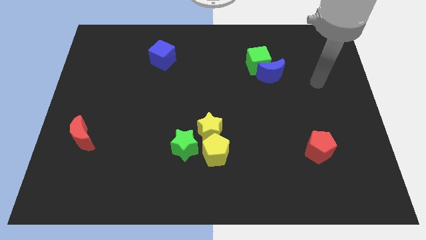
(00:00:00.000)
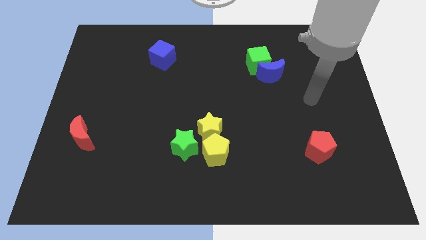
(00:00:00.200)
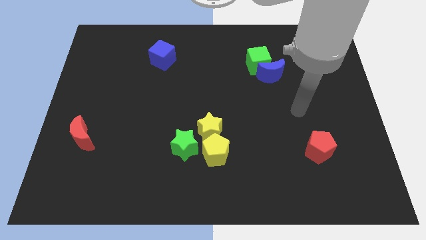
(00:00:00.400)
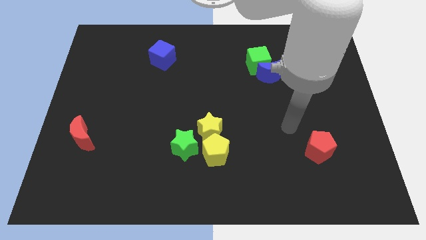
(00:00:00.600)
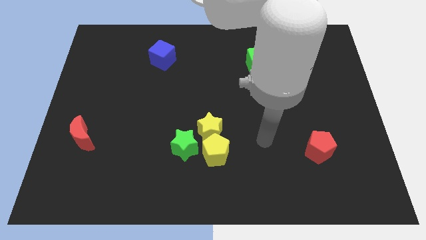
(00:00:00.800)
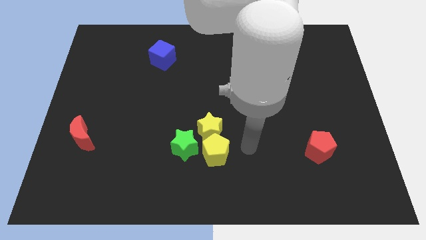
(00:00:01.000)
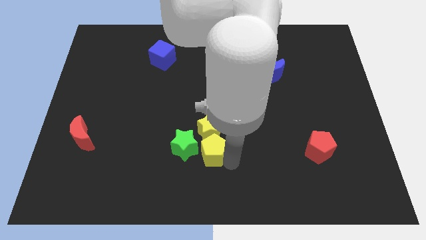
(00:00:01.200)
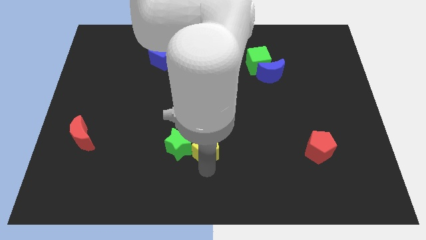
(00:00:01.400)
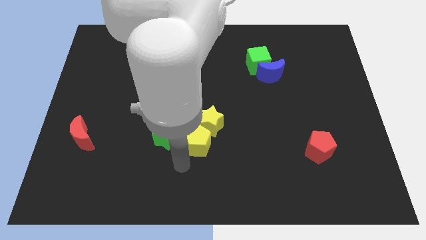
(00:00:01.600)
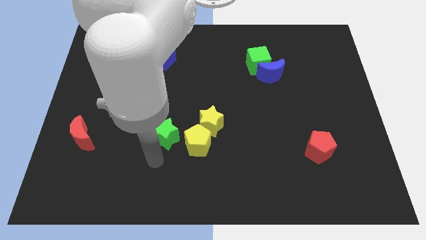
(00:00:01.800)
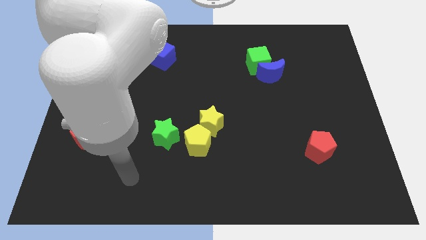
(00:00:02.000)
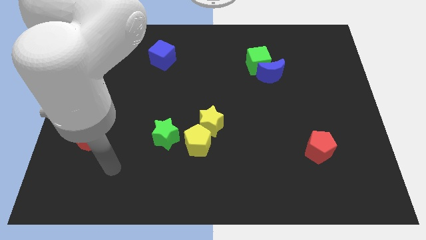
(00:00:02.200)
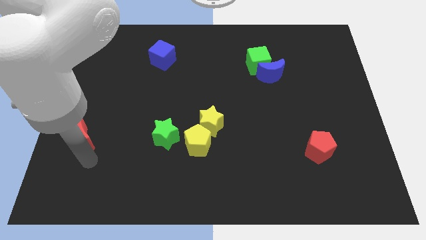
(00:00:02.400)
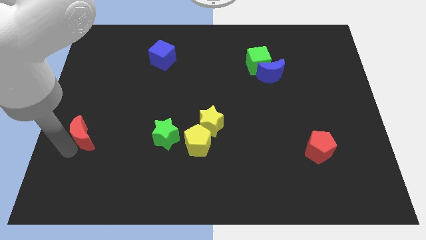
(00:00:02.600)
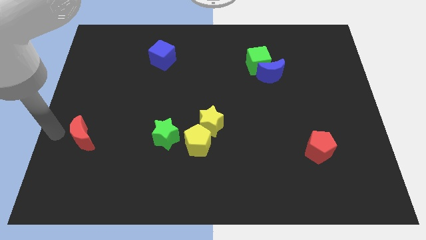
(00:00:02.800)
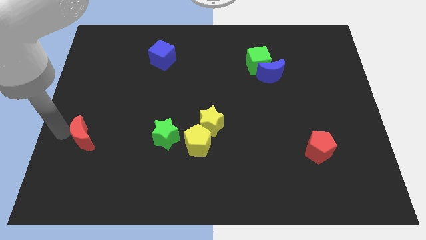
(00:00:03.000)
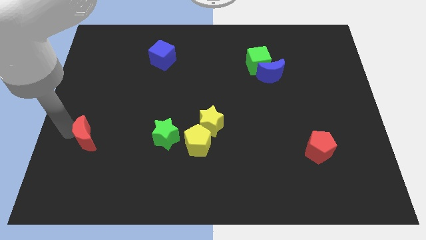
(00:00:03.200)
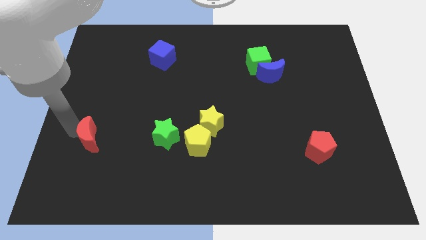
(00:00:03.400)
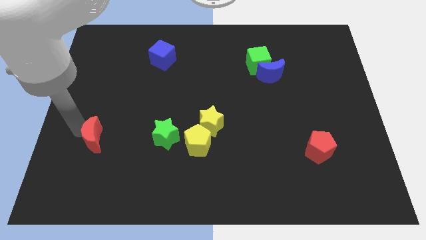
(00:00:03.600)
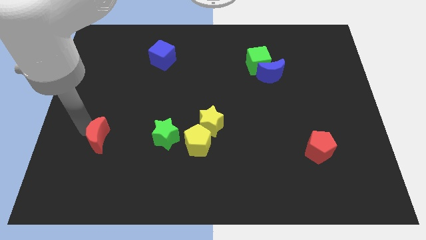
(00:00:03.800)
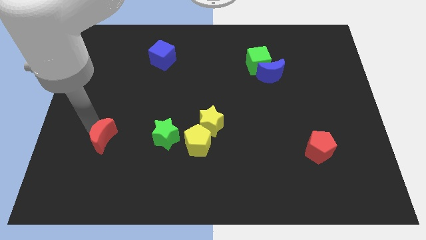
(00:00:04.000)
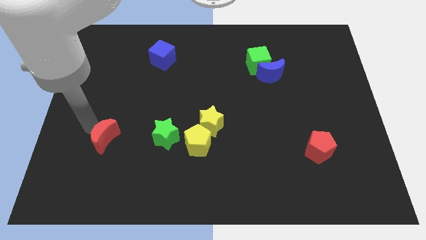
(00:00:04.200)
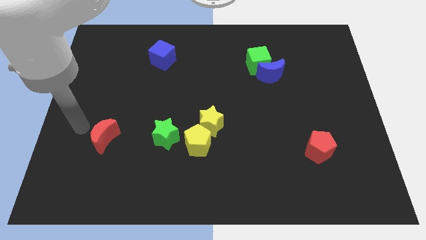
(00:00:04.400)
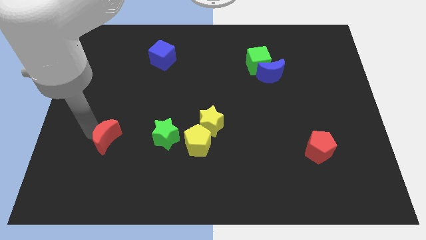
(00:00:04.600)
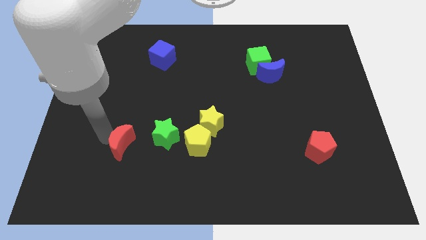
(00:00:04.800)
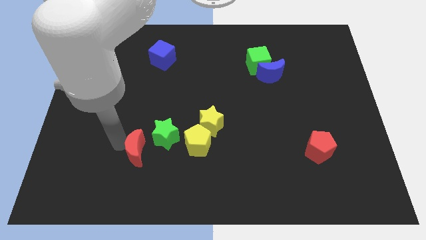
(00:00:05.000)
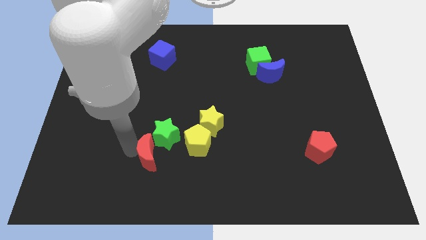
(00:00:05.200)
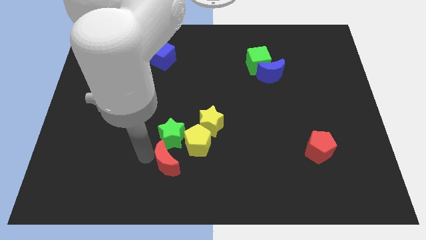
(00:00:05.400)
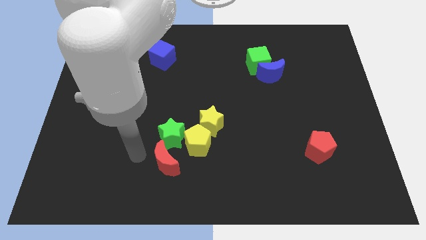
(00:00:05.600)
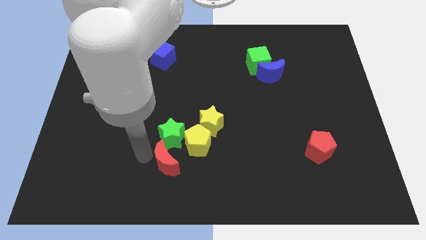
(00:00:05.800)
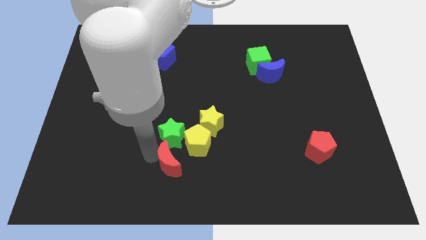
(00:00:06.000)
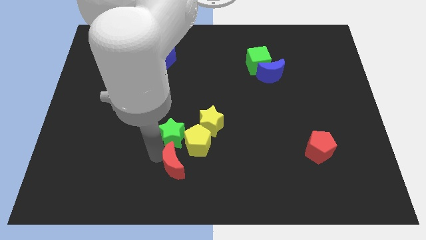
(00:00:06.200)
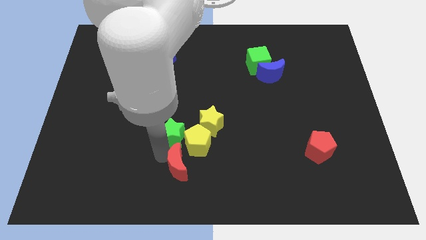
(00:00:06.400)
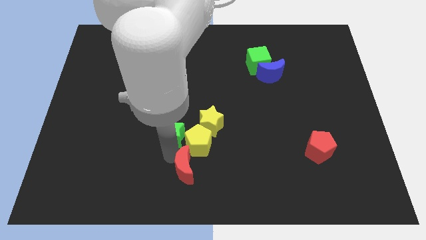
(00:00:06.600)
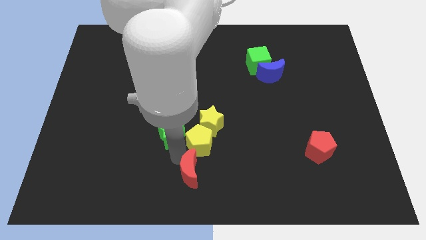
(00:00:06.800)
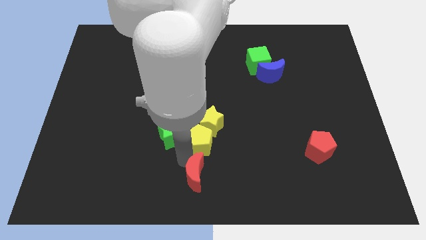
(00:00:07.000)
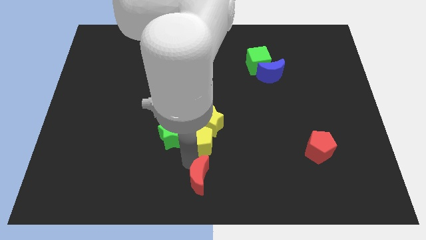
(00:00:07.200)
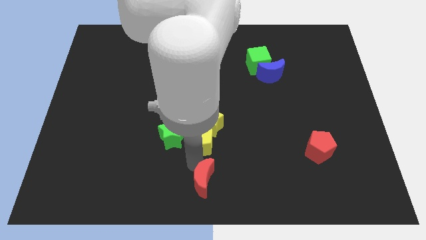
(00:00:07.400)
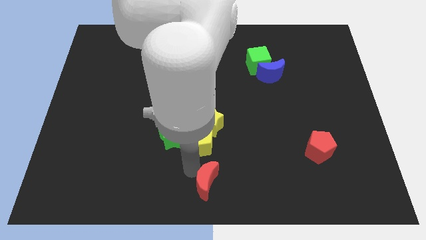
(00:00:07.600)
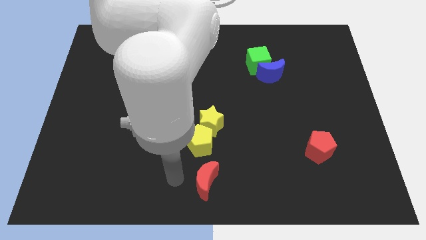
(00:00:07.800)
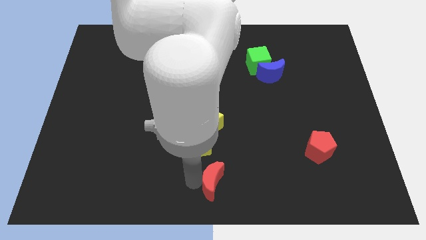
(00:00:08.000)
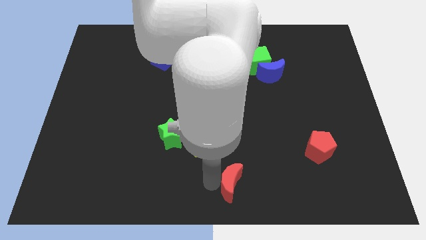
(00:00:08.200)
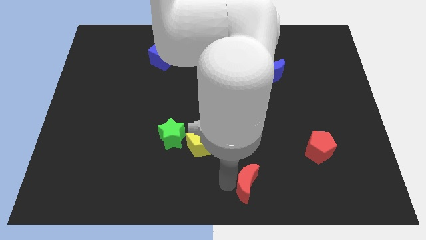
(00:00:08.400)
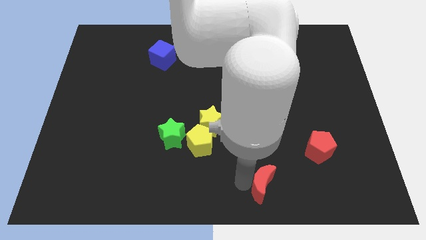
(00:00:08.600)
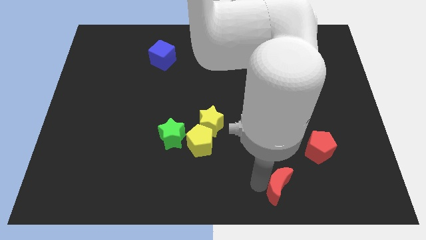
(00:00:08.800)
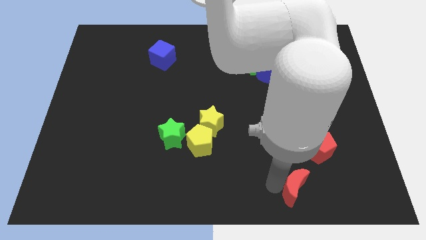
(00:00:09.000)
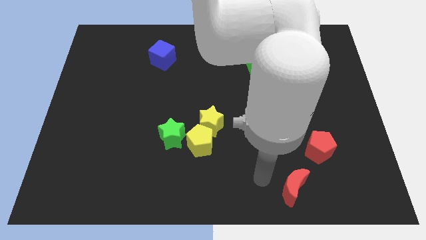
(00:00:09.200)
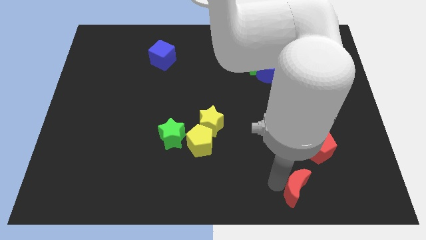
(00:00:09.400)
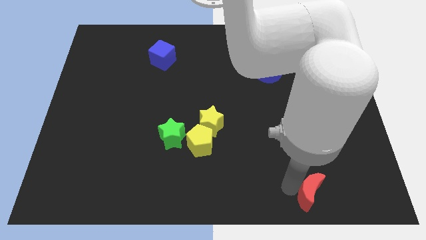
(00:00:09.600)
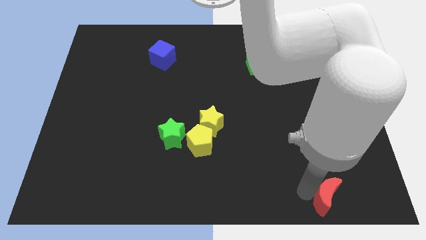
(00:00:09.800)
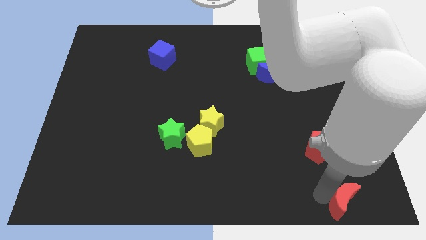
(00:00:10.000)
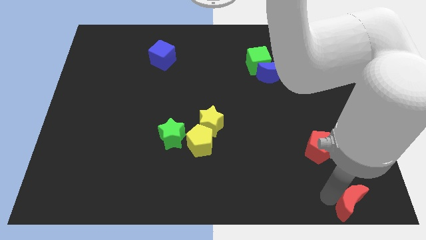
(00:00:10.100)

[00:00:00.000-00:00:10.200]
put the red moon to the bottom right

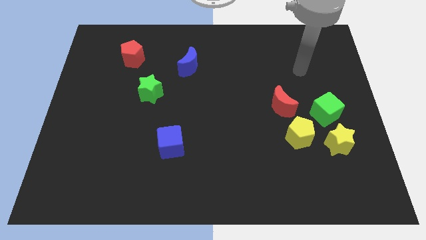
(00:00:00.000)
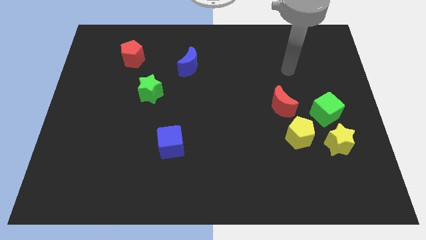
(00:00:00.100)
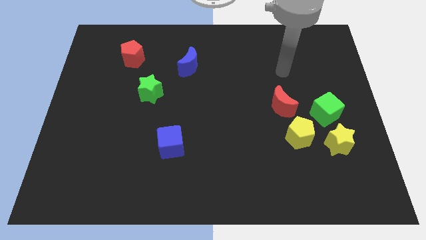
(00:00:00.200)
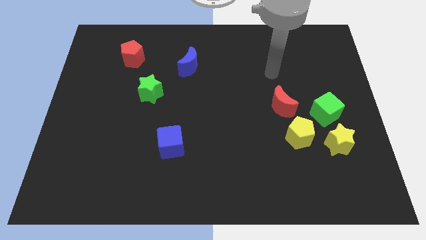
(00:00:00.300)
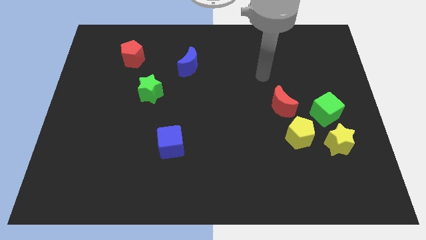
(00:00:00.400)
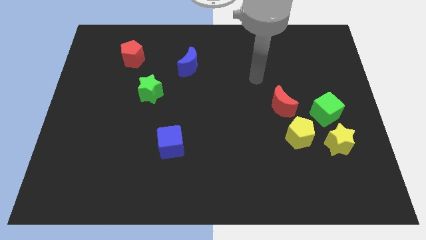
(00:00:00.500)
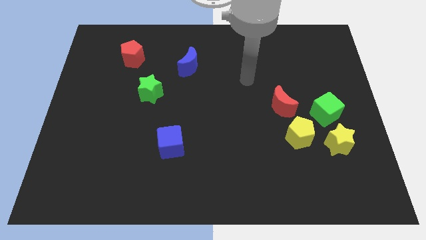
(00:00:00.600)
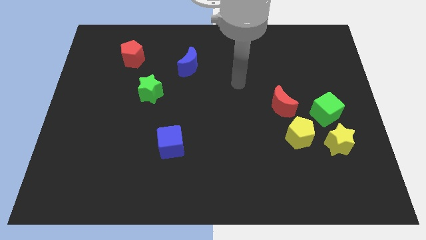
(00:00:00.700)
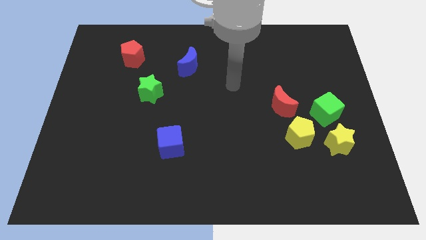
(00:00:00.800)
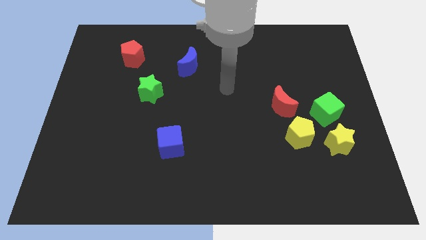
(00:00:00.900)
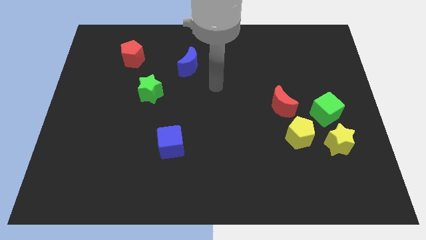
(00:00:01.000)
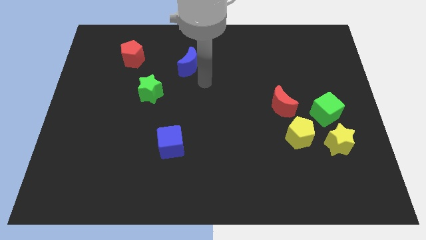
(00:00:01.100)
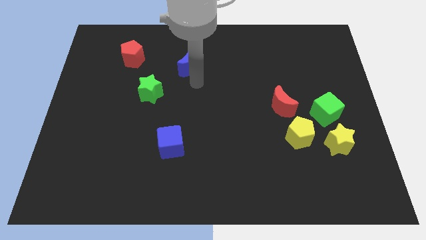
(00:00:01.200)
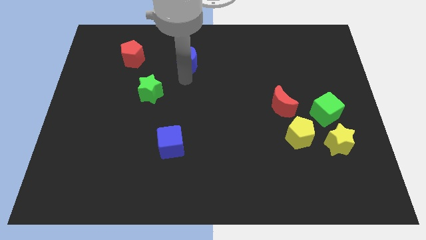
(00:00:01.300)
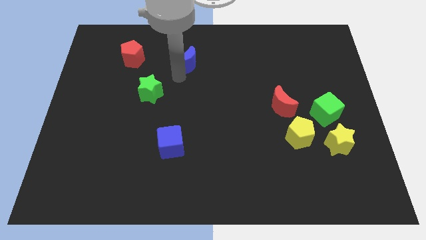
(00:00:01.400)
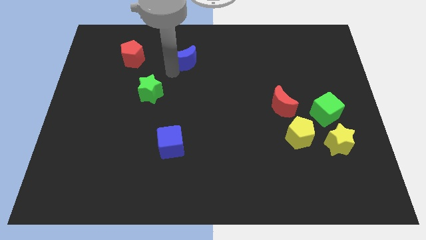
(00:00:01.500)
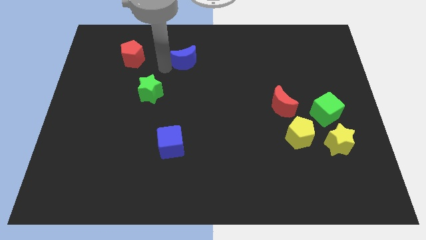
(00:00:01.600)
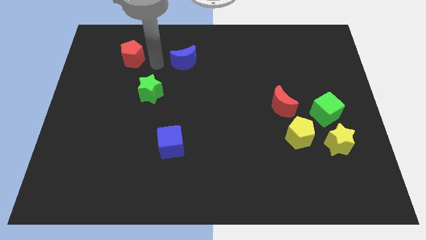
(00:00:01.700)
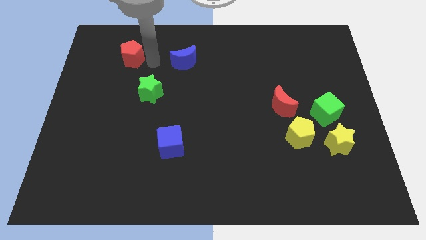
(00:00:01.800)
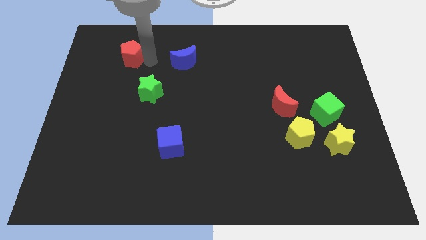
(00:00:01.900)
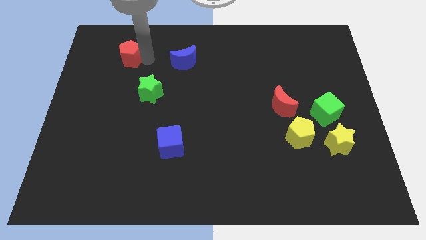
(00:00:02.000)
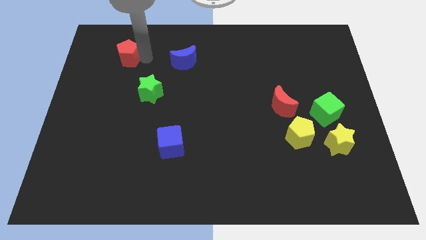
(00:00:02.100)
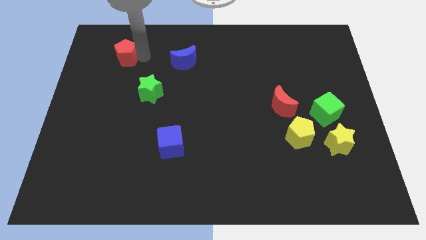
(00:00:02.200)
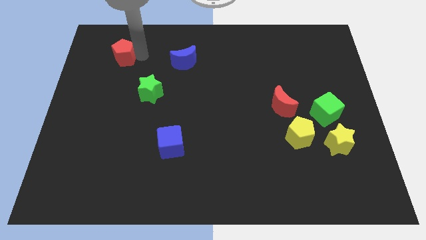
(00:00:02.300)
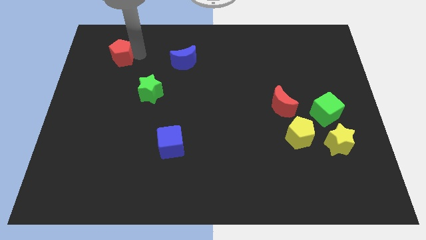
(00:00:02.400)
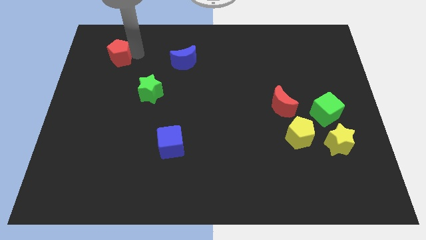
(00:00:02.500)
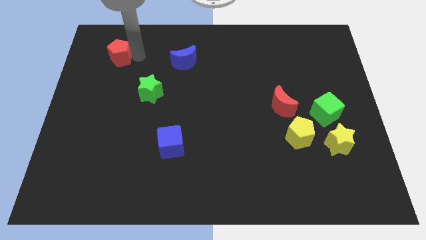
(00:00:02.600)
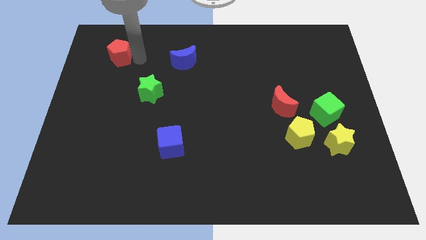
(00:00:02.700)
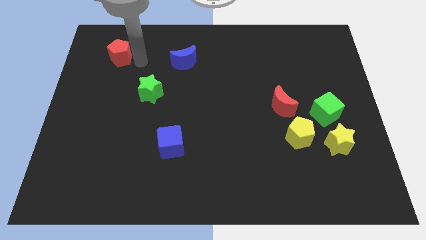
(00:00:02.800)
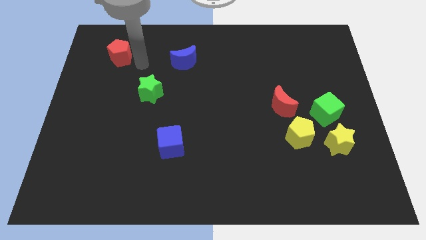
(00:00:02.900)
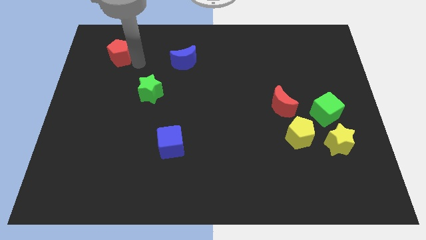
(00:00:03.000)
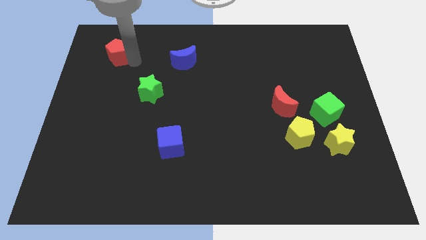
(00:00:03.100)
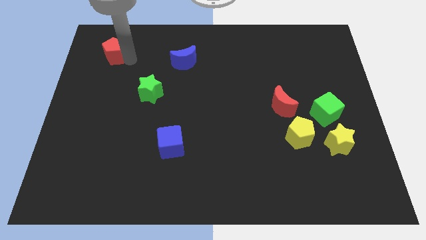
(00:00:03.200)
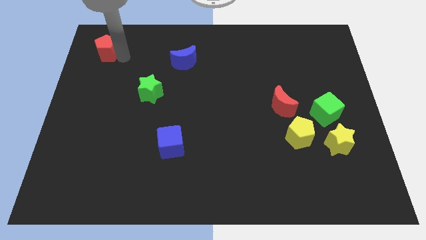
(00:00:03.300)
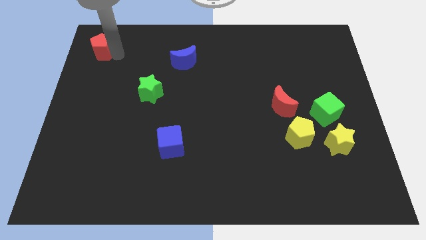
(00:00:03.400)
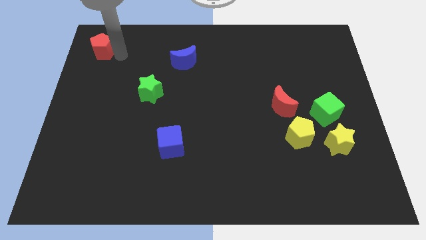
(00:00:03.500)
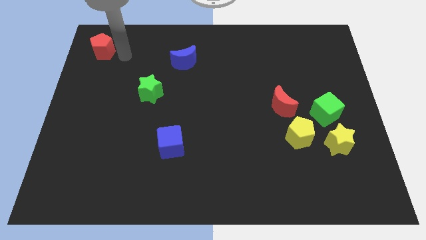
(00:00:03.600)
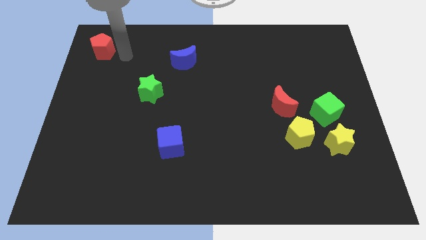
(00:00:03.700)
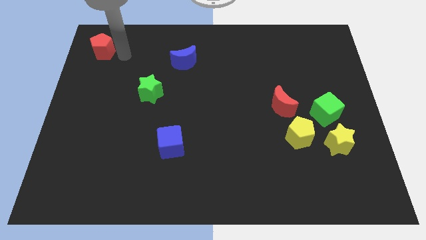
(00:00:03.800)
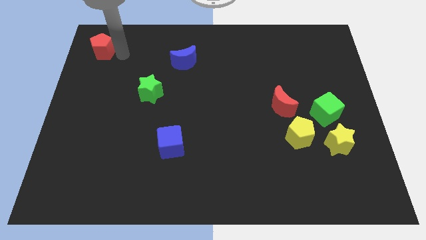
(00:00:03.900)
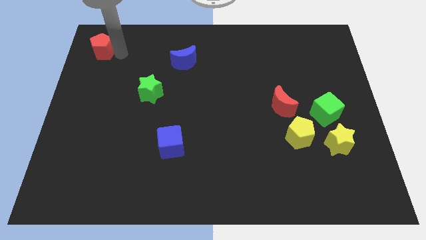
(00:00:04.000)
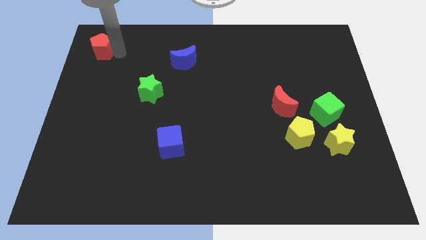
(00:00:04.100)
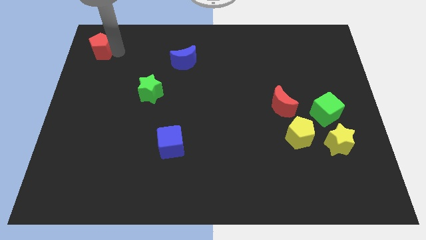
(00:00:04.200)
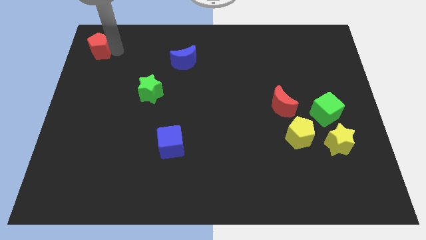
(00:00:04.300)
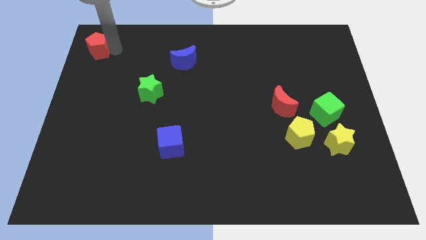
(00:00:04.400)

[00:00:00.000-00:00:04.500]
move the red pentagon to the upper left corner
